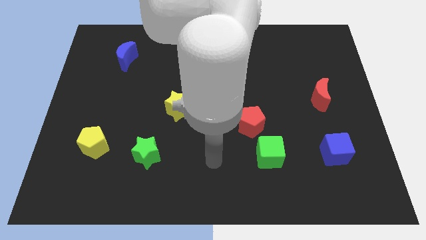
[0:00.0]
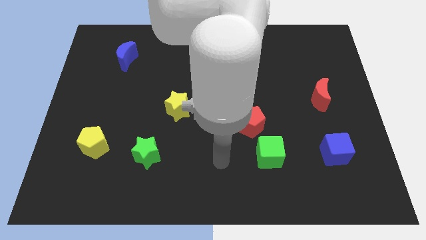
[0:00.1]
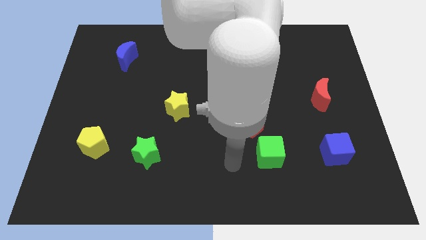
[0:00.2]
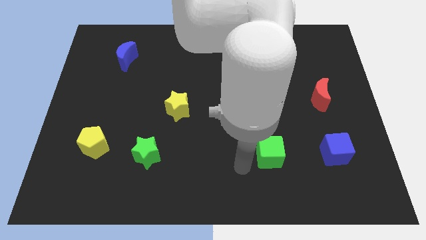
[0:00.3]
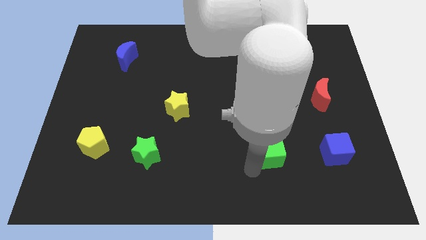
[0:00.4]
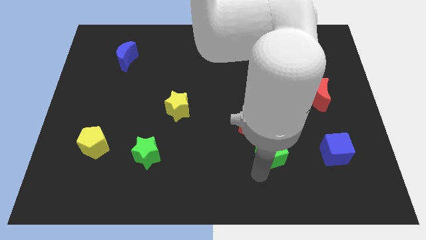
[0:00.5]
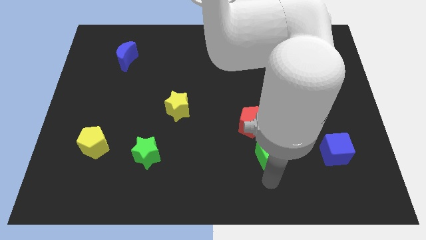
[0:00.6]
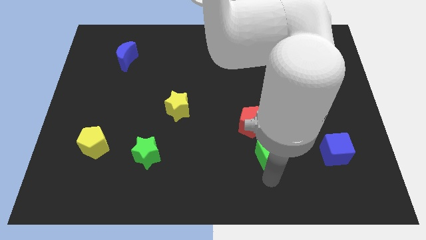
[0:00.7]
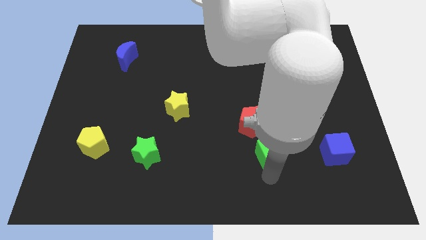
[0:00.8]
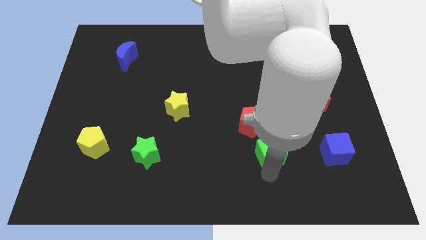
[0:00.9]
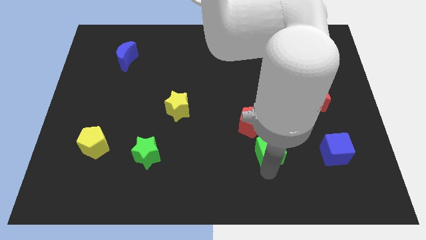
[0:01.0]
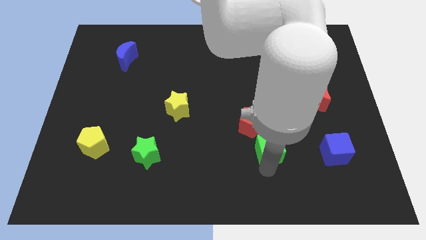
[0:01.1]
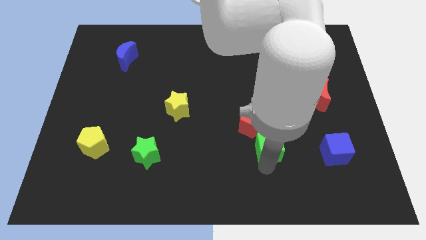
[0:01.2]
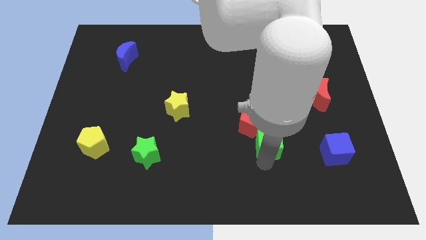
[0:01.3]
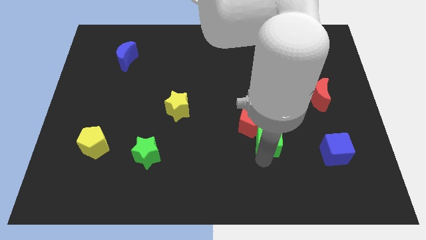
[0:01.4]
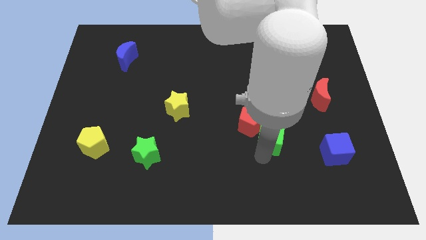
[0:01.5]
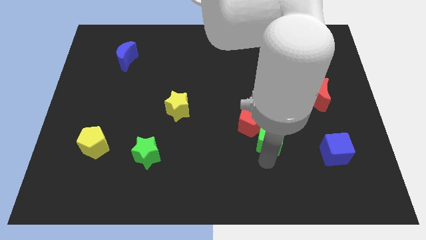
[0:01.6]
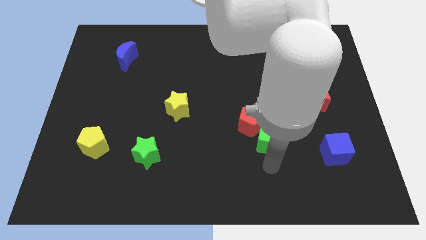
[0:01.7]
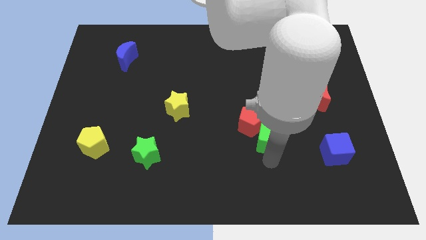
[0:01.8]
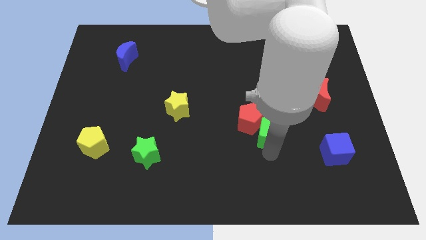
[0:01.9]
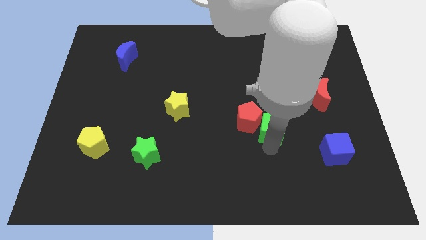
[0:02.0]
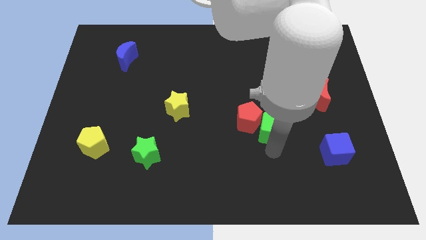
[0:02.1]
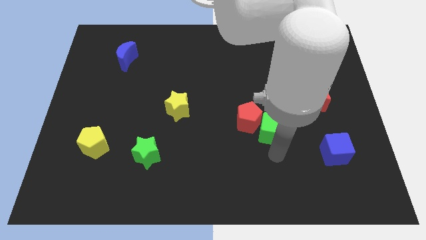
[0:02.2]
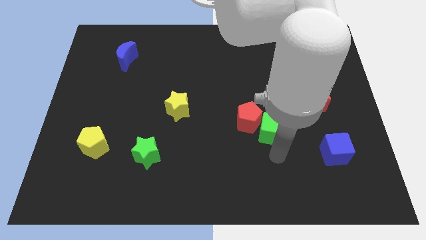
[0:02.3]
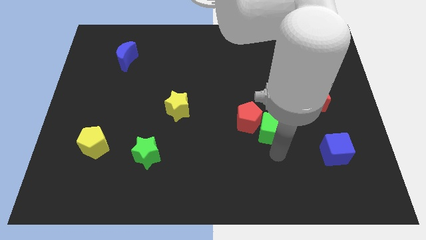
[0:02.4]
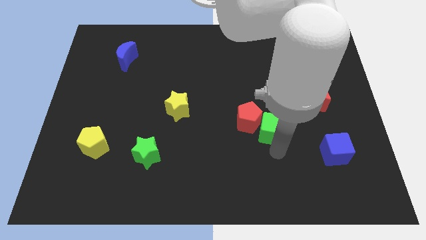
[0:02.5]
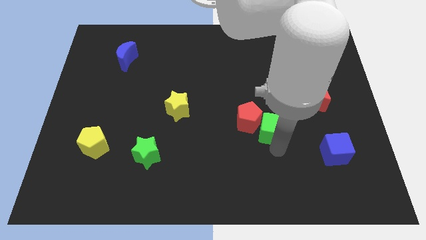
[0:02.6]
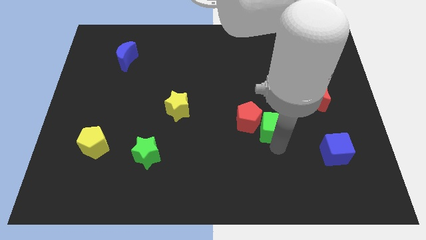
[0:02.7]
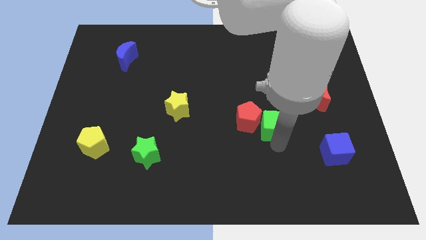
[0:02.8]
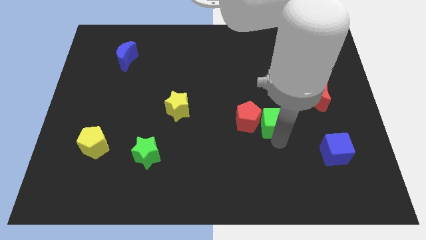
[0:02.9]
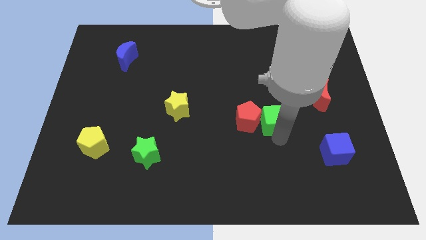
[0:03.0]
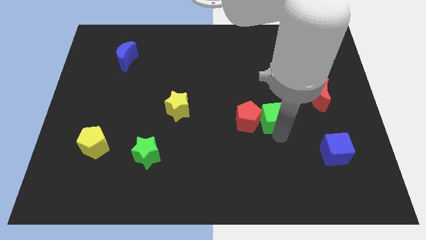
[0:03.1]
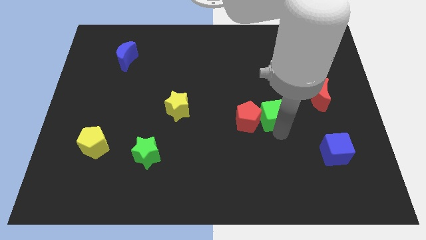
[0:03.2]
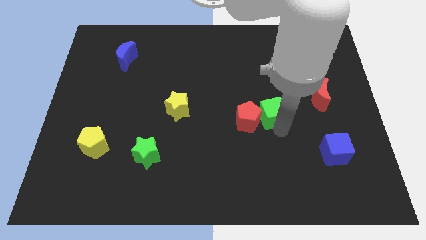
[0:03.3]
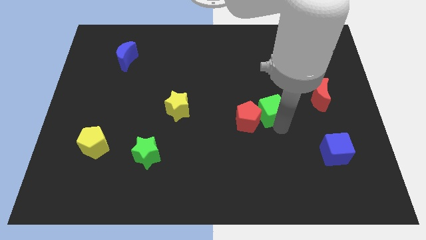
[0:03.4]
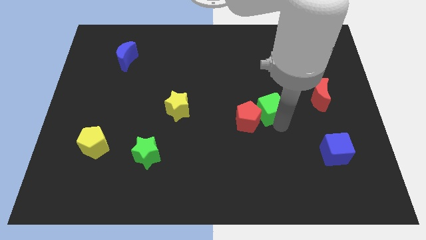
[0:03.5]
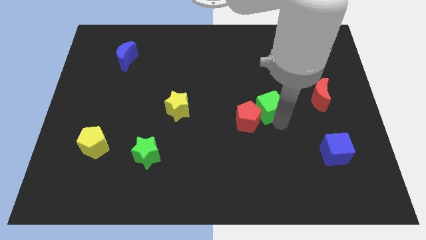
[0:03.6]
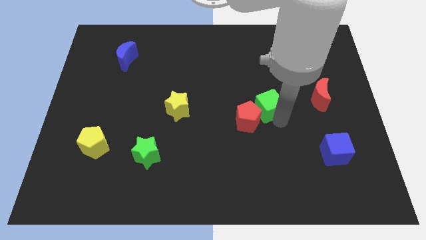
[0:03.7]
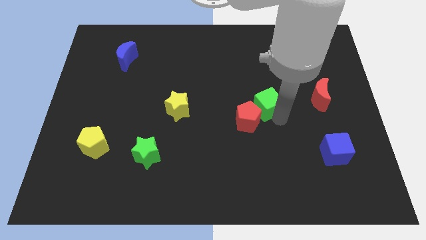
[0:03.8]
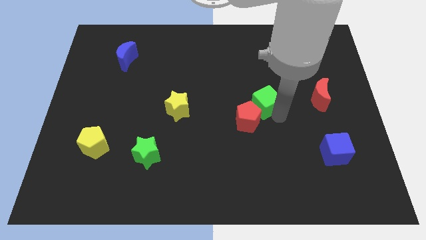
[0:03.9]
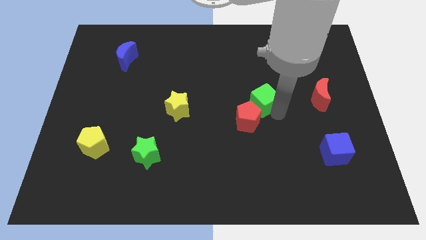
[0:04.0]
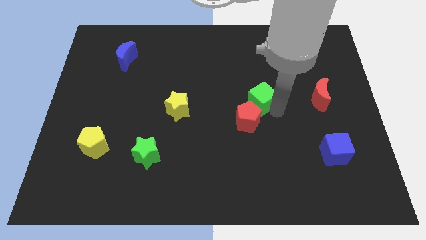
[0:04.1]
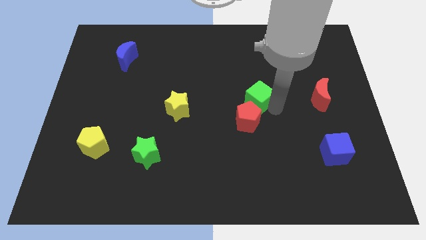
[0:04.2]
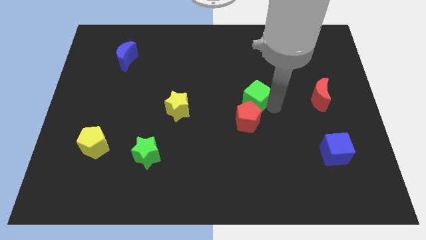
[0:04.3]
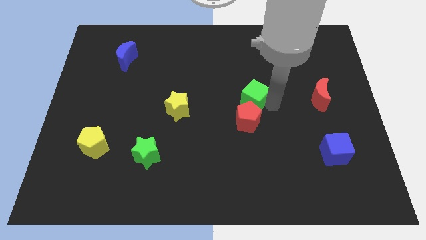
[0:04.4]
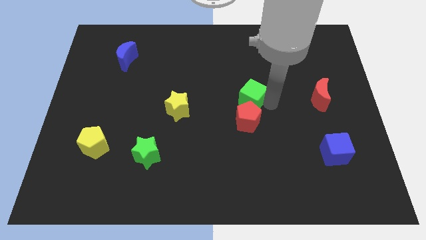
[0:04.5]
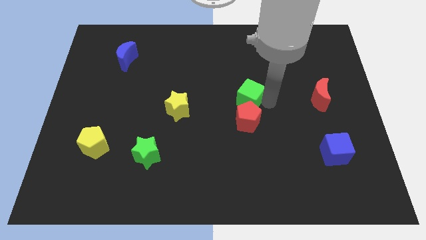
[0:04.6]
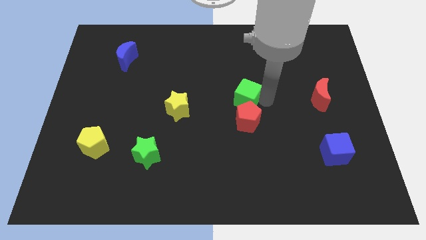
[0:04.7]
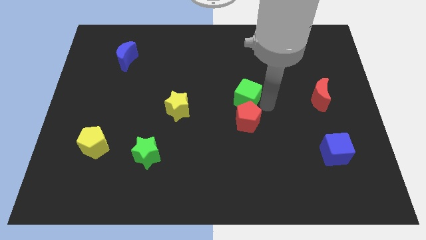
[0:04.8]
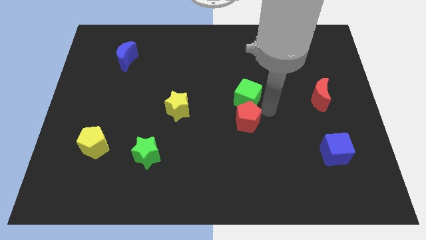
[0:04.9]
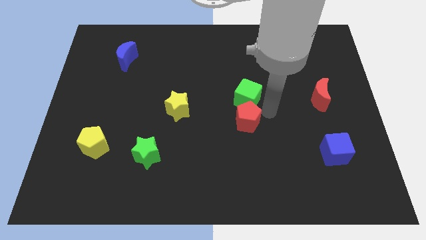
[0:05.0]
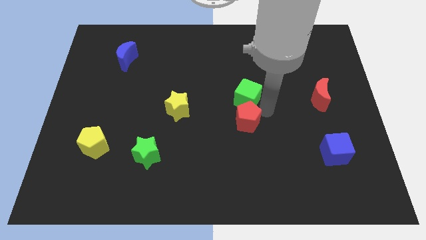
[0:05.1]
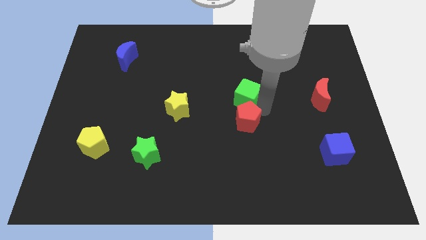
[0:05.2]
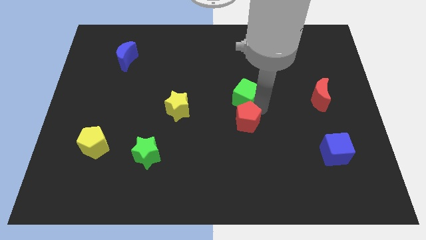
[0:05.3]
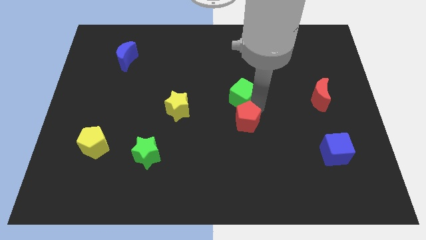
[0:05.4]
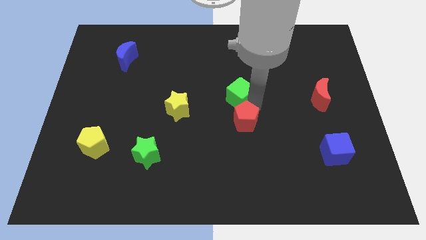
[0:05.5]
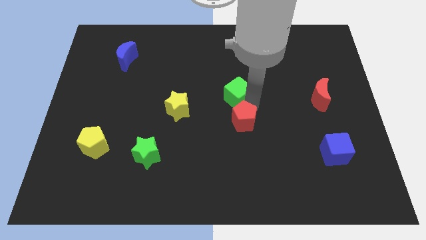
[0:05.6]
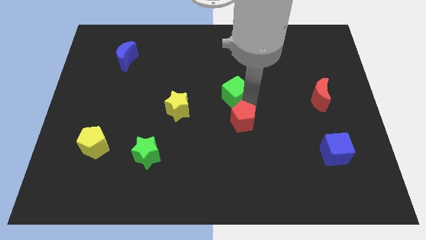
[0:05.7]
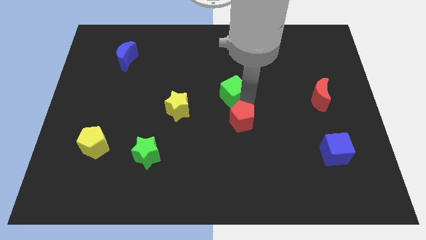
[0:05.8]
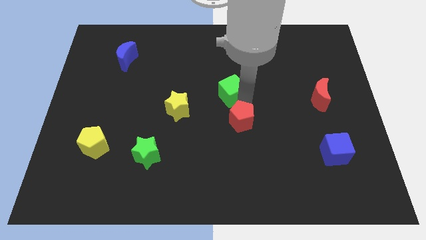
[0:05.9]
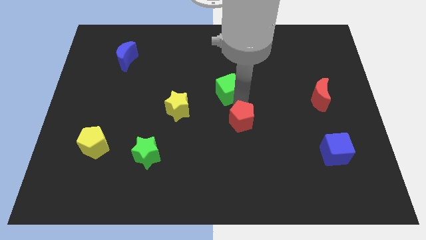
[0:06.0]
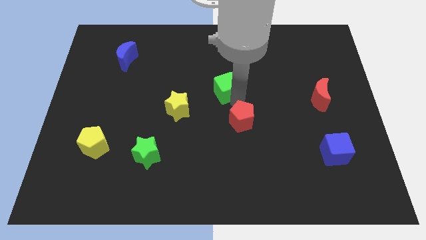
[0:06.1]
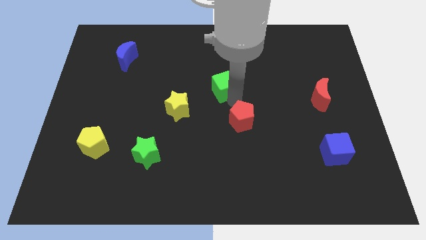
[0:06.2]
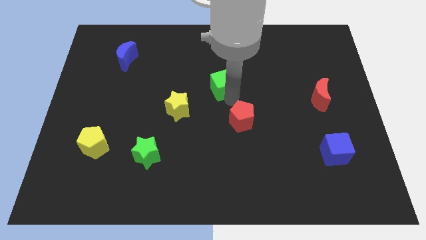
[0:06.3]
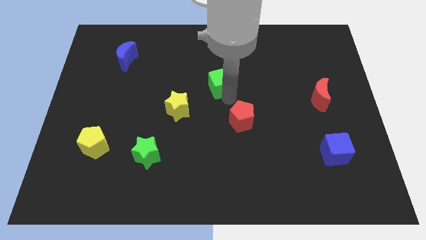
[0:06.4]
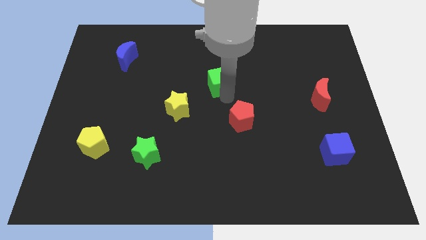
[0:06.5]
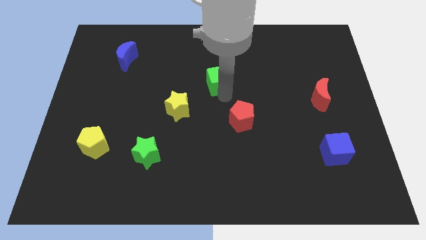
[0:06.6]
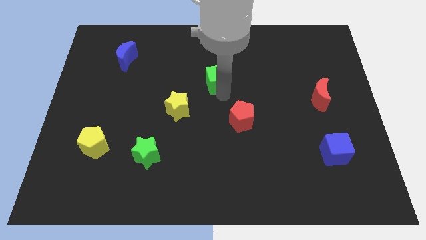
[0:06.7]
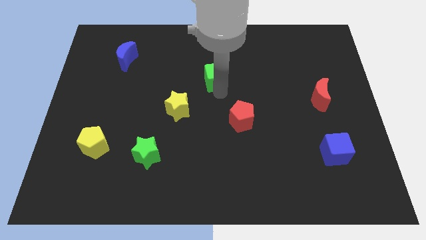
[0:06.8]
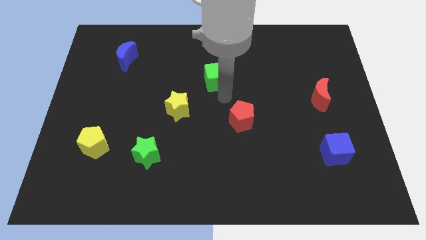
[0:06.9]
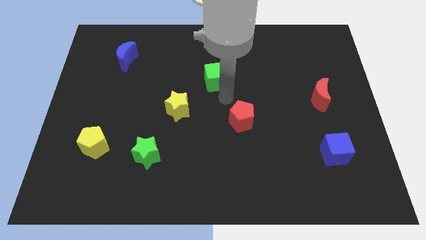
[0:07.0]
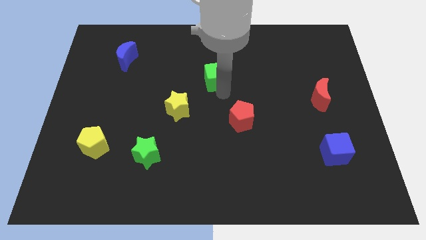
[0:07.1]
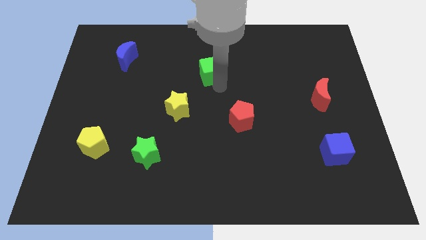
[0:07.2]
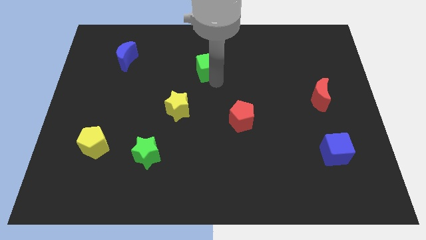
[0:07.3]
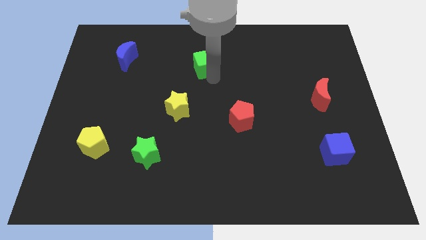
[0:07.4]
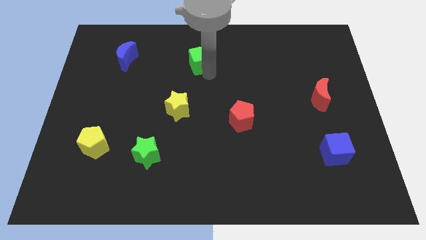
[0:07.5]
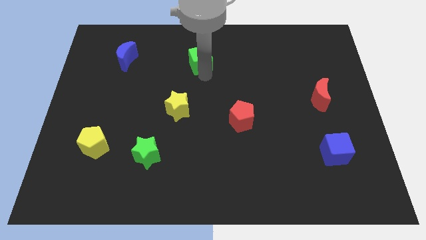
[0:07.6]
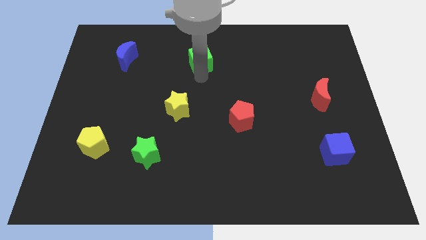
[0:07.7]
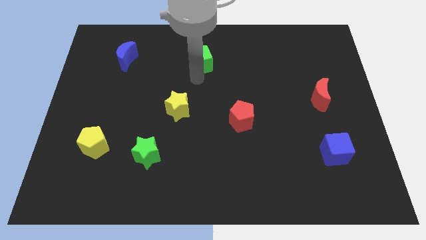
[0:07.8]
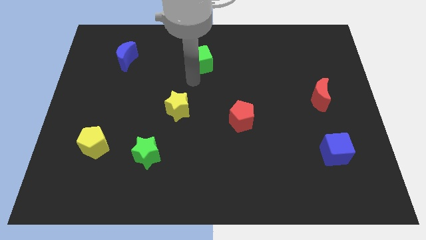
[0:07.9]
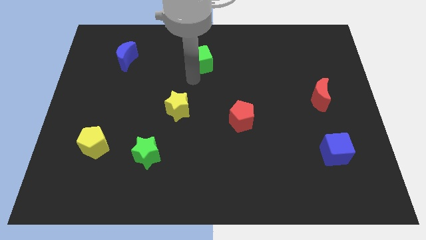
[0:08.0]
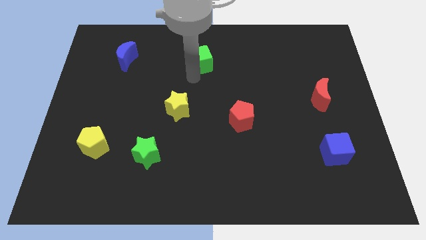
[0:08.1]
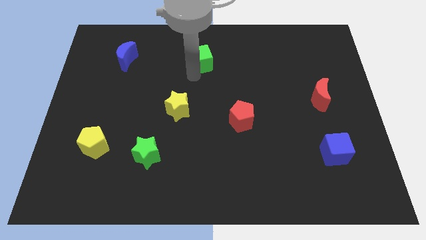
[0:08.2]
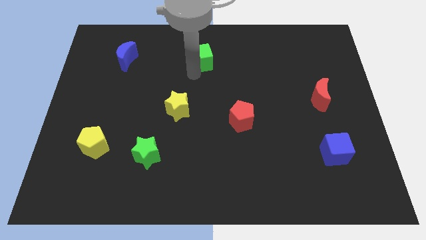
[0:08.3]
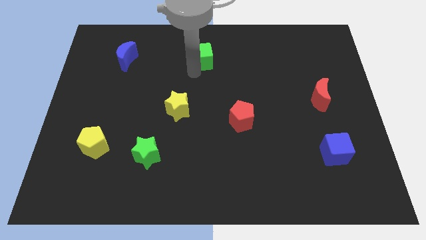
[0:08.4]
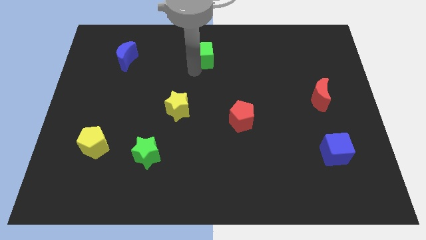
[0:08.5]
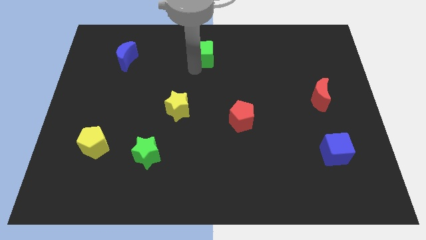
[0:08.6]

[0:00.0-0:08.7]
put the green cube to the top side
